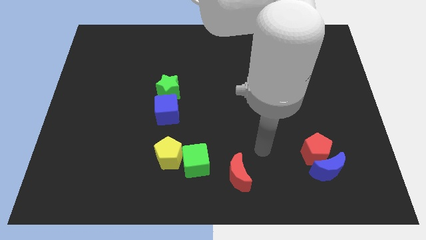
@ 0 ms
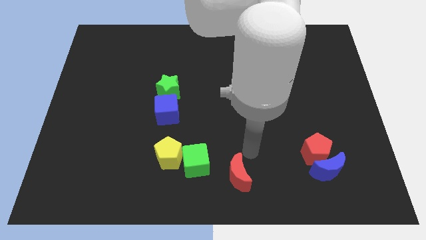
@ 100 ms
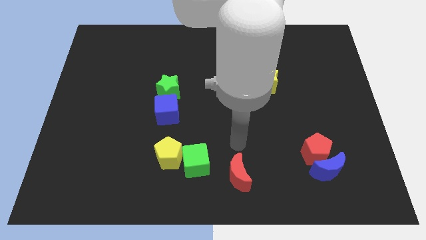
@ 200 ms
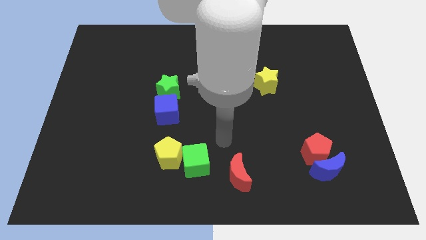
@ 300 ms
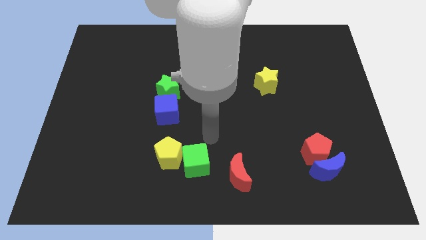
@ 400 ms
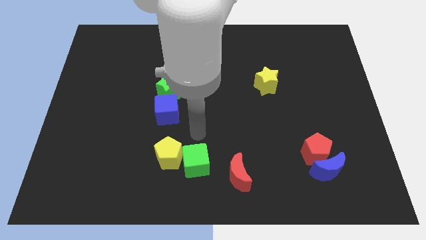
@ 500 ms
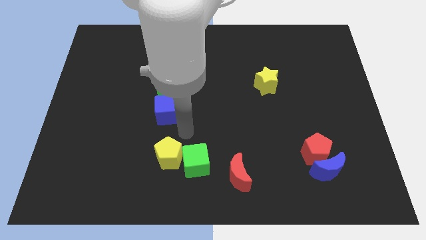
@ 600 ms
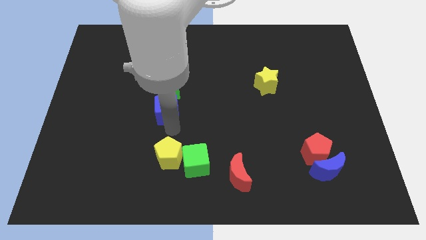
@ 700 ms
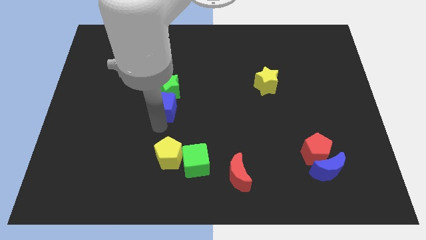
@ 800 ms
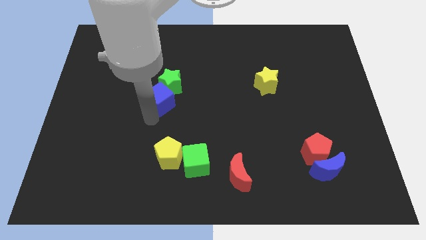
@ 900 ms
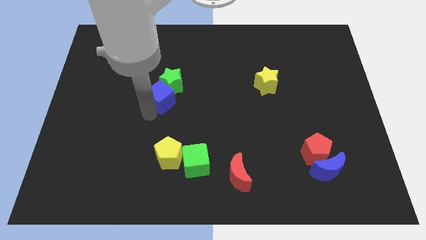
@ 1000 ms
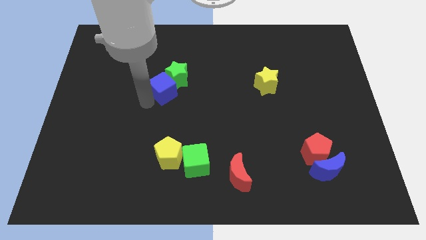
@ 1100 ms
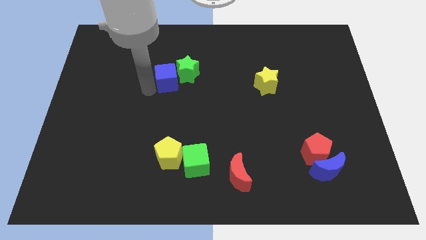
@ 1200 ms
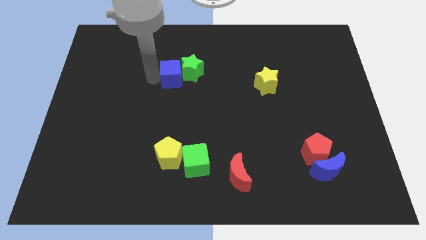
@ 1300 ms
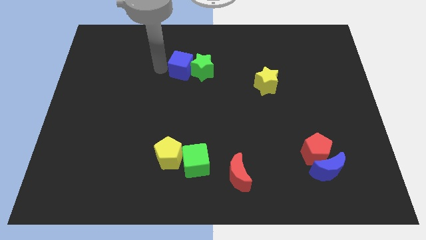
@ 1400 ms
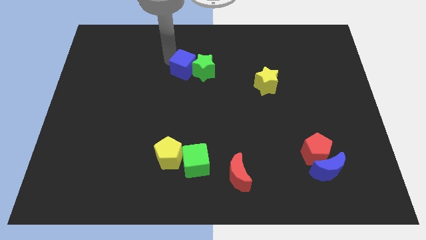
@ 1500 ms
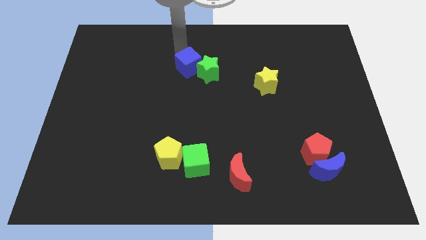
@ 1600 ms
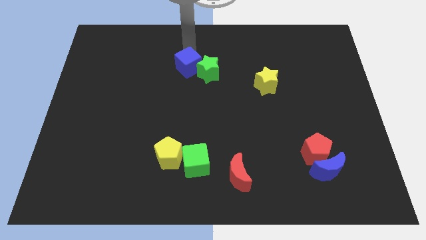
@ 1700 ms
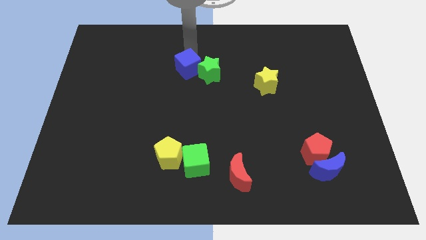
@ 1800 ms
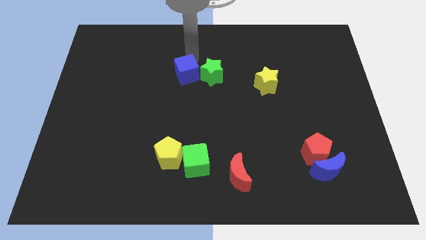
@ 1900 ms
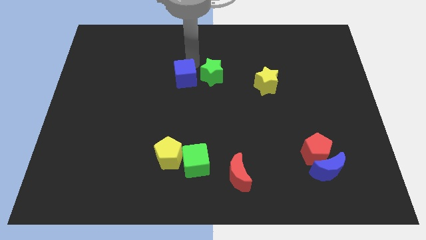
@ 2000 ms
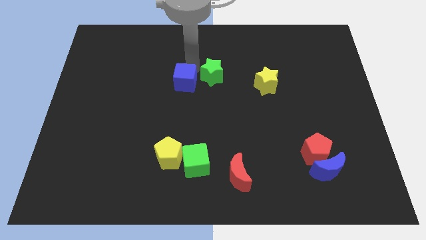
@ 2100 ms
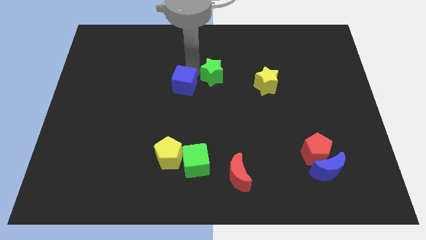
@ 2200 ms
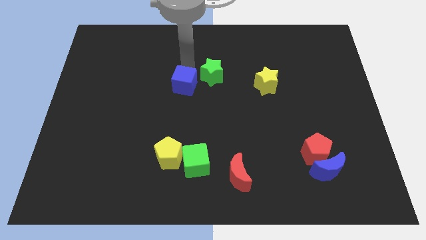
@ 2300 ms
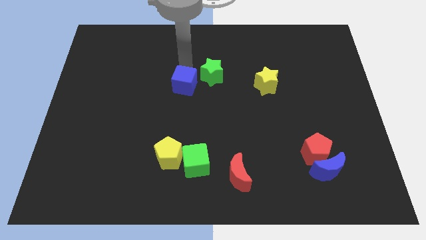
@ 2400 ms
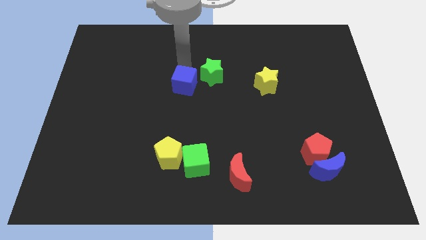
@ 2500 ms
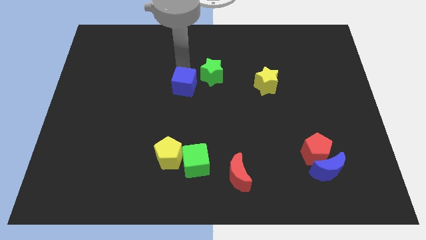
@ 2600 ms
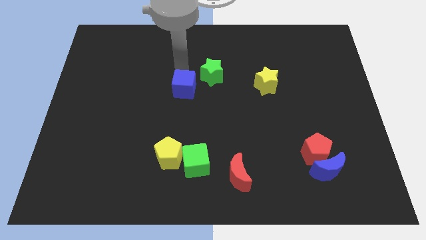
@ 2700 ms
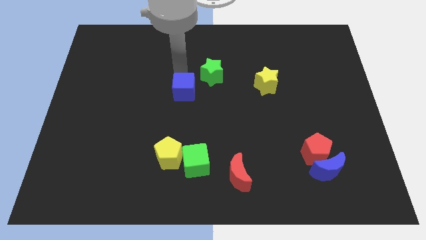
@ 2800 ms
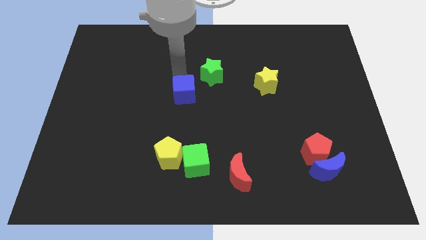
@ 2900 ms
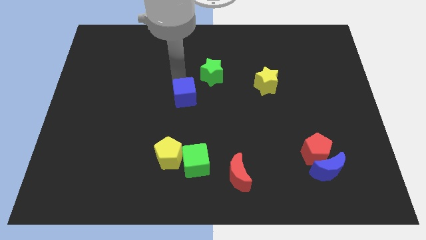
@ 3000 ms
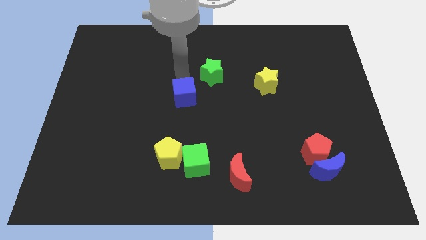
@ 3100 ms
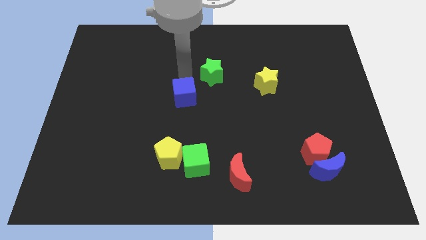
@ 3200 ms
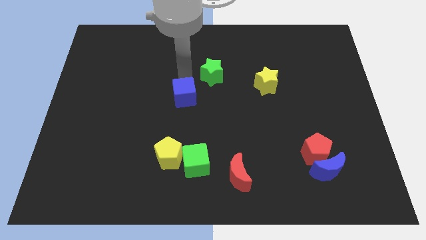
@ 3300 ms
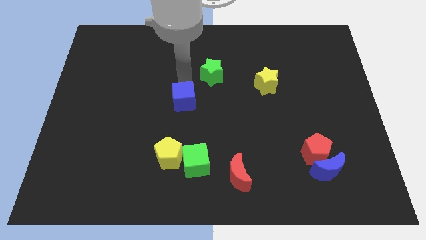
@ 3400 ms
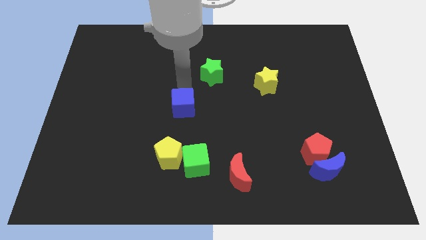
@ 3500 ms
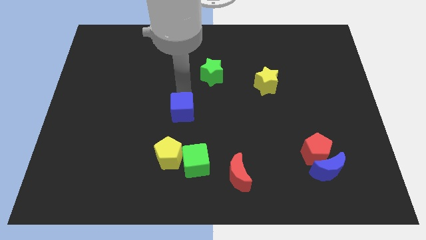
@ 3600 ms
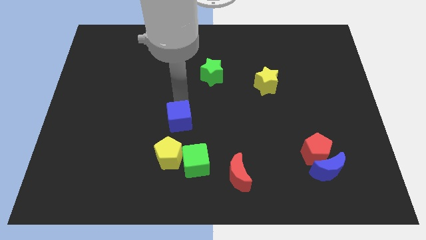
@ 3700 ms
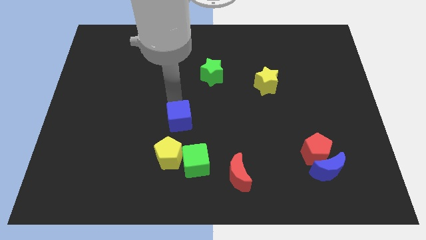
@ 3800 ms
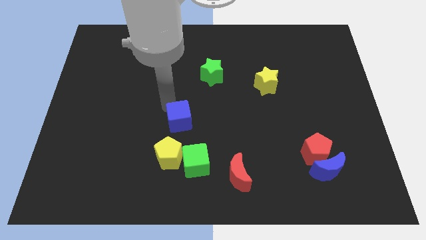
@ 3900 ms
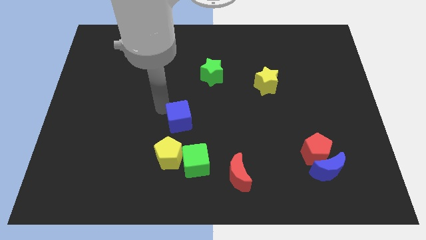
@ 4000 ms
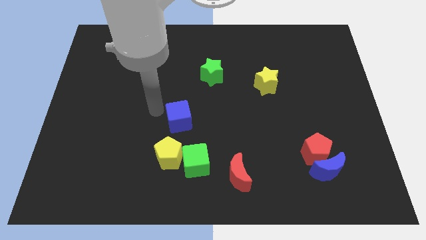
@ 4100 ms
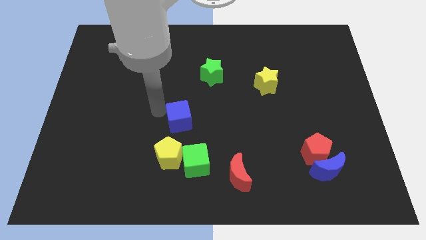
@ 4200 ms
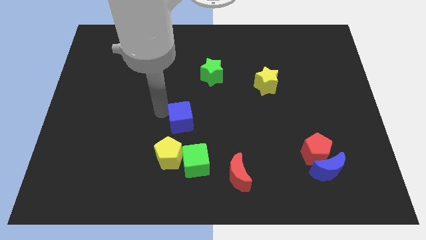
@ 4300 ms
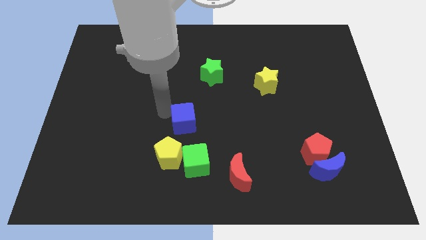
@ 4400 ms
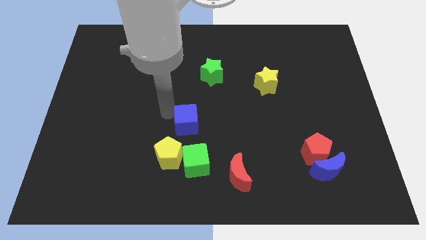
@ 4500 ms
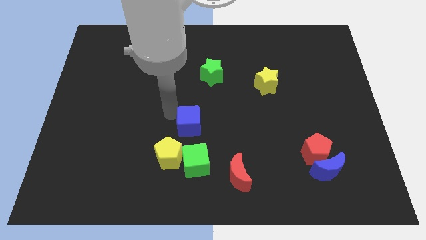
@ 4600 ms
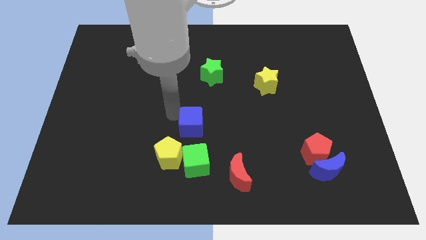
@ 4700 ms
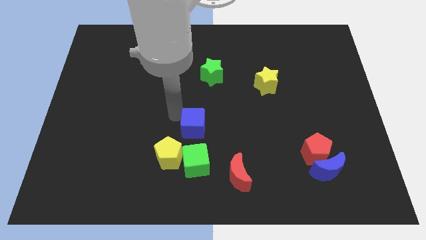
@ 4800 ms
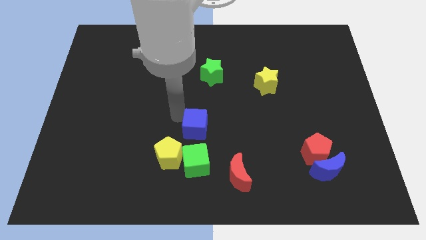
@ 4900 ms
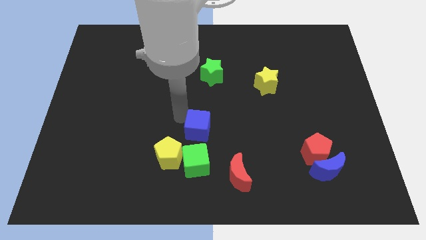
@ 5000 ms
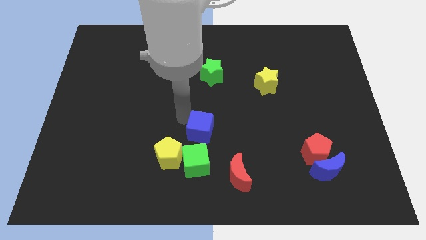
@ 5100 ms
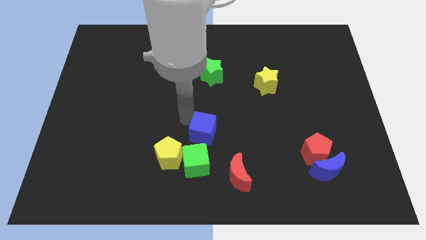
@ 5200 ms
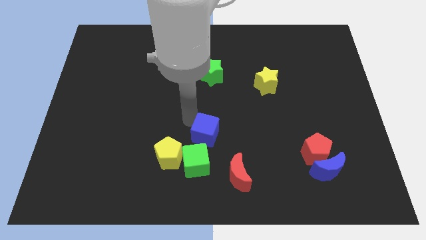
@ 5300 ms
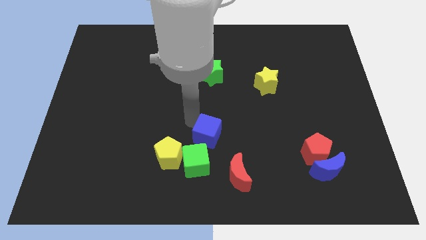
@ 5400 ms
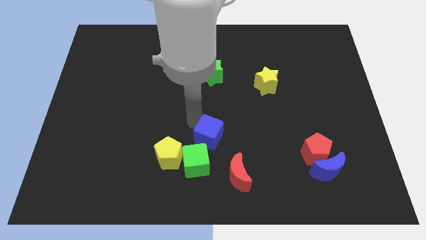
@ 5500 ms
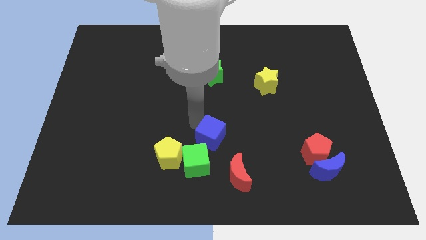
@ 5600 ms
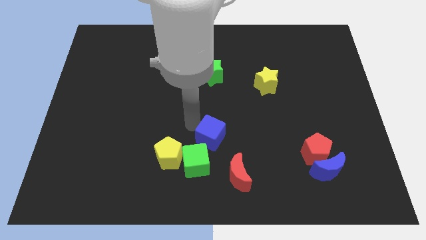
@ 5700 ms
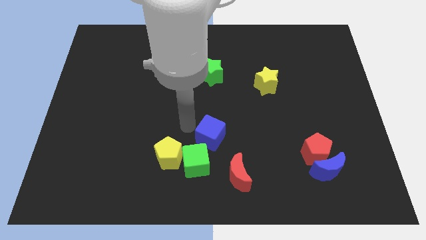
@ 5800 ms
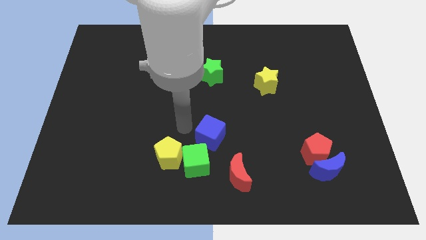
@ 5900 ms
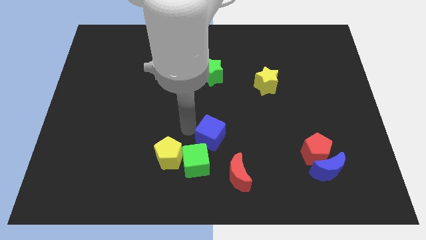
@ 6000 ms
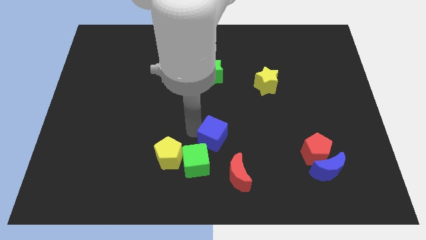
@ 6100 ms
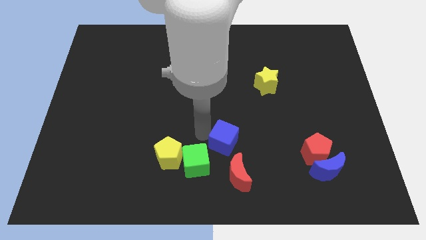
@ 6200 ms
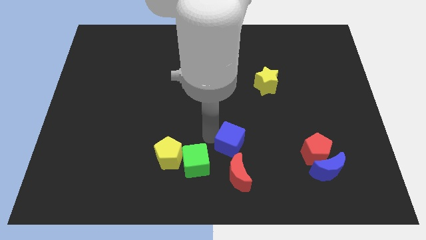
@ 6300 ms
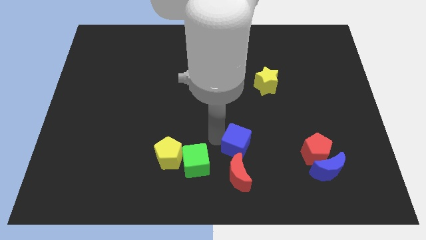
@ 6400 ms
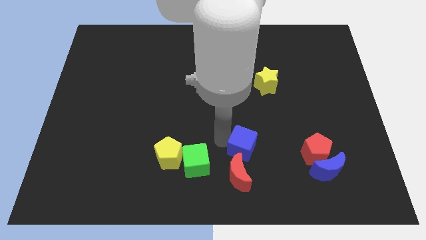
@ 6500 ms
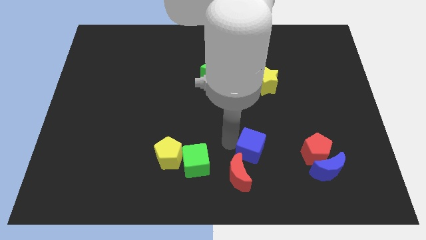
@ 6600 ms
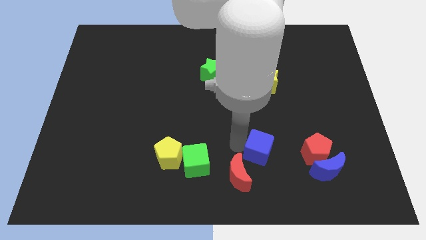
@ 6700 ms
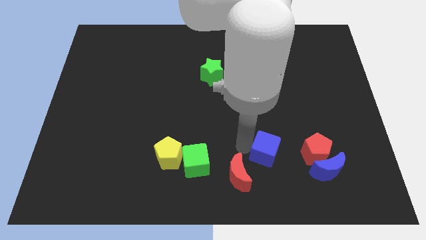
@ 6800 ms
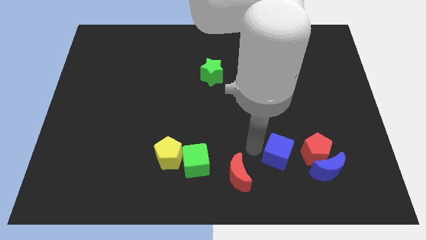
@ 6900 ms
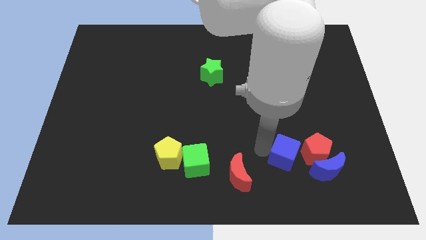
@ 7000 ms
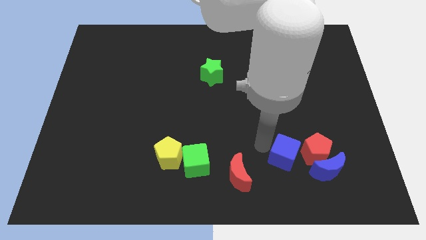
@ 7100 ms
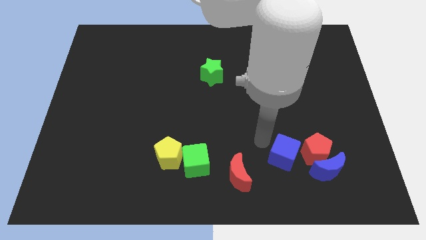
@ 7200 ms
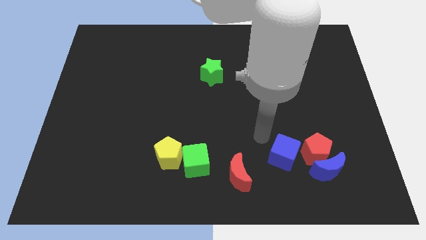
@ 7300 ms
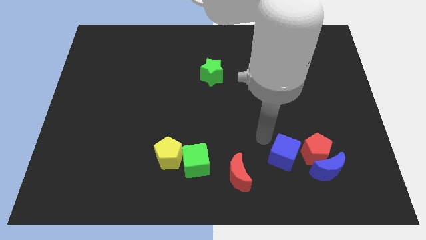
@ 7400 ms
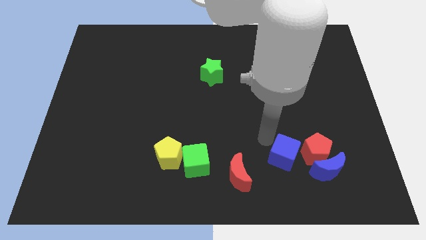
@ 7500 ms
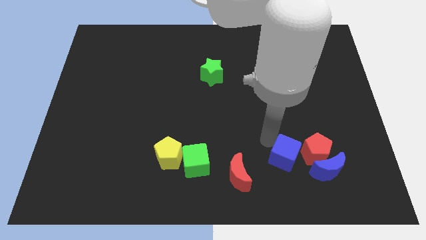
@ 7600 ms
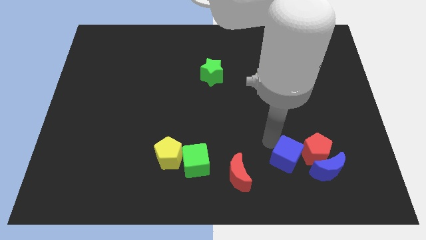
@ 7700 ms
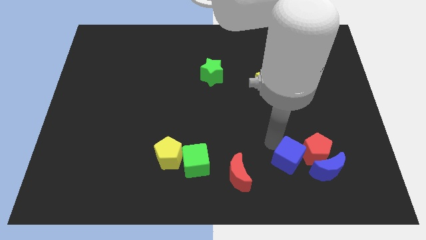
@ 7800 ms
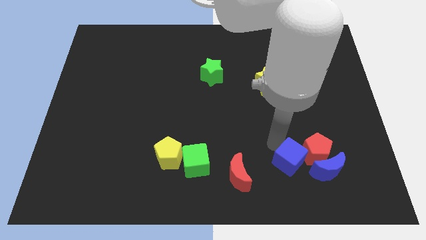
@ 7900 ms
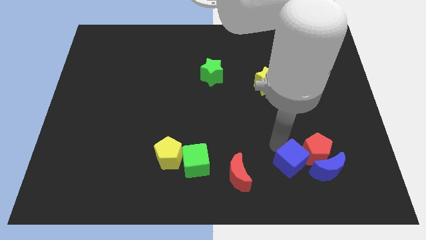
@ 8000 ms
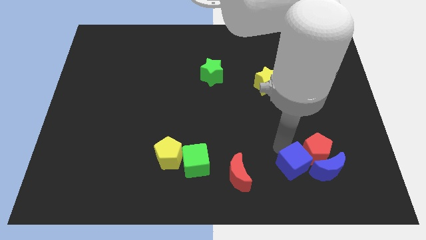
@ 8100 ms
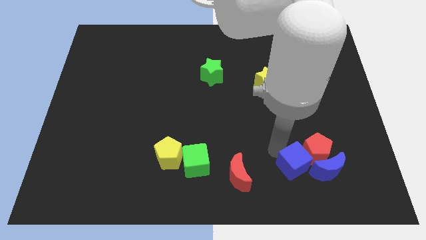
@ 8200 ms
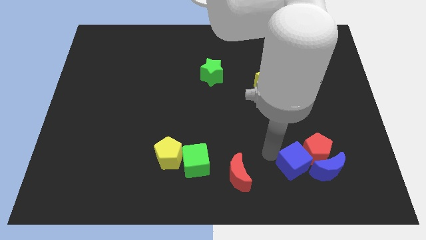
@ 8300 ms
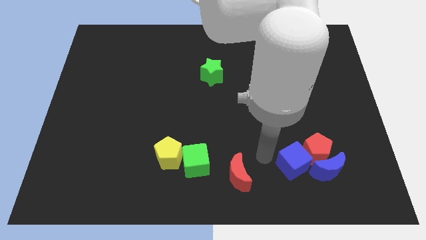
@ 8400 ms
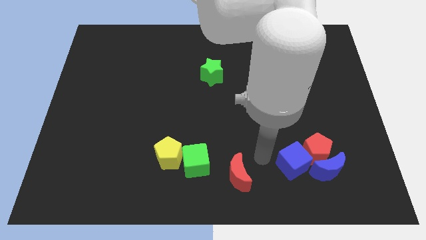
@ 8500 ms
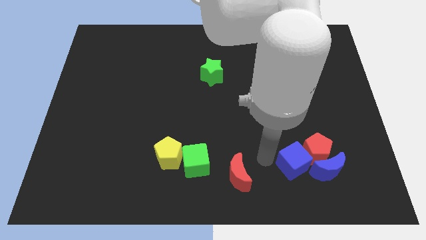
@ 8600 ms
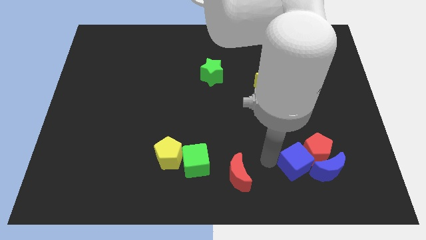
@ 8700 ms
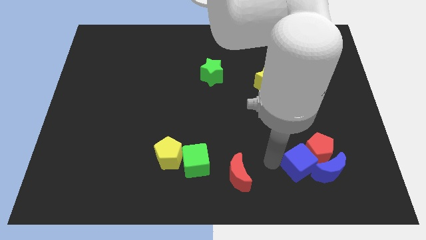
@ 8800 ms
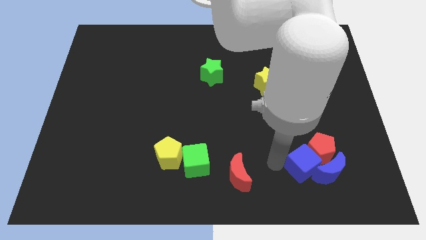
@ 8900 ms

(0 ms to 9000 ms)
put the blue cube close to the blue moon
